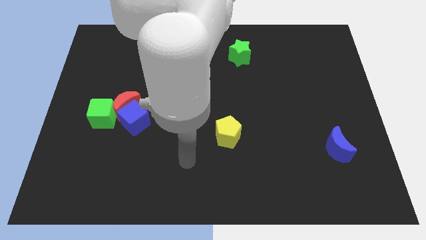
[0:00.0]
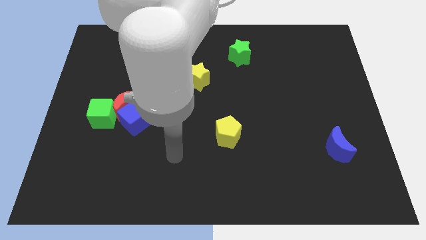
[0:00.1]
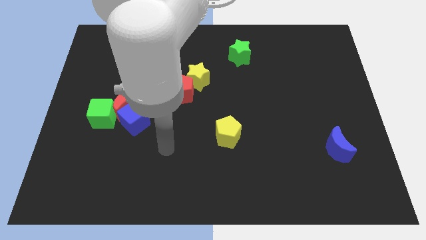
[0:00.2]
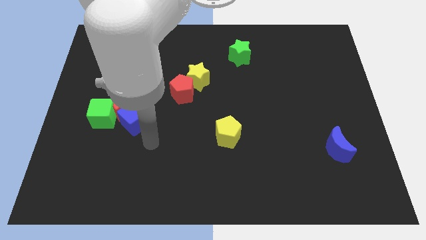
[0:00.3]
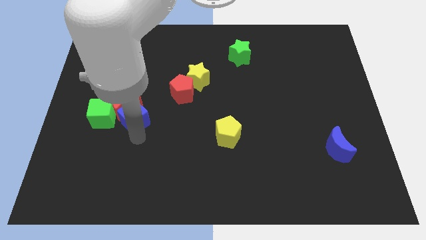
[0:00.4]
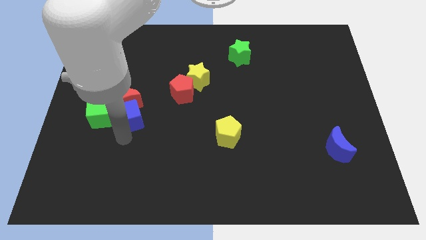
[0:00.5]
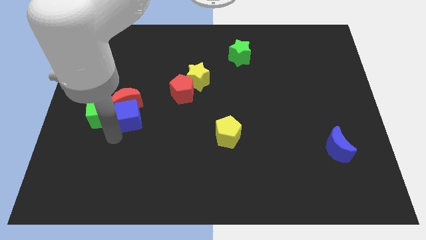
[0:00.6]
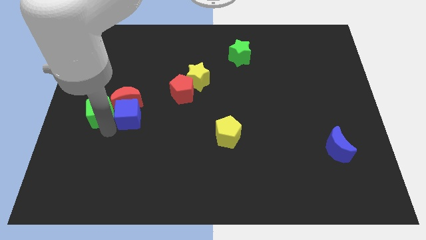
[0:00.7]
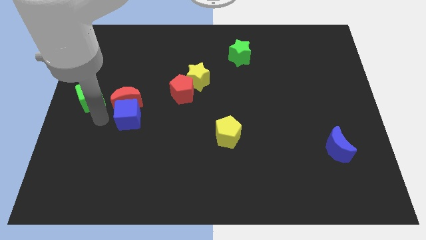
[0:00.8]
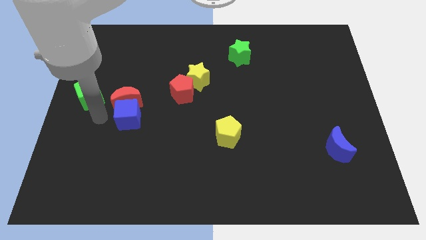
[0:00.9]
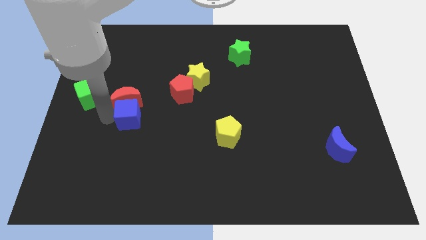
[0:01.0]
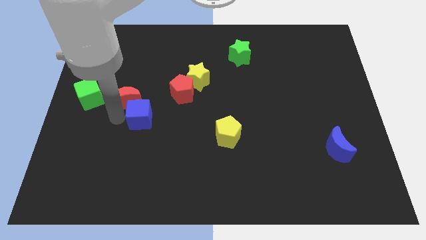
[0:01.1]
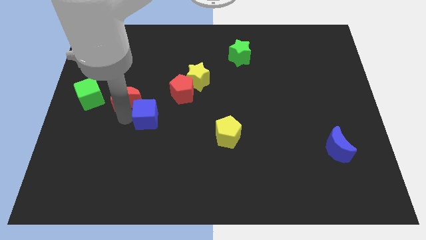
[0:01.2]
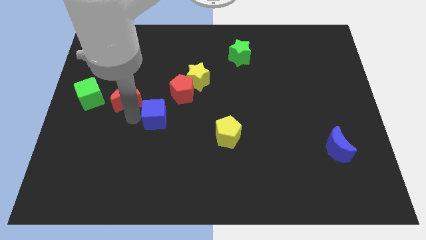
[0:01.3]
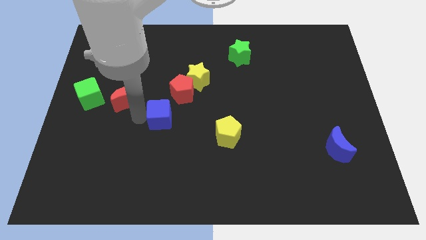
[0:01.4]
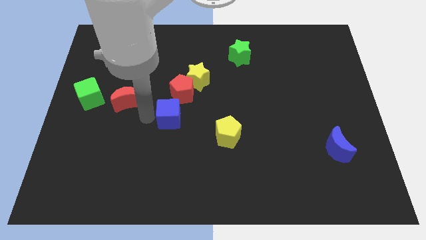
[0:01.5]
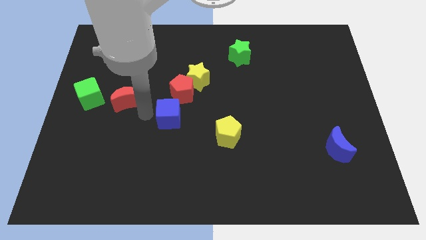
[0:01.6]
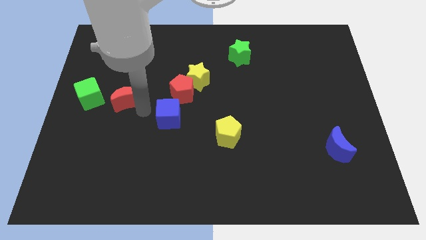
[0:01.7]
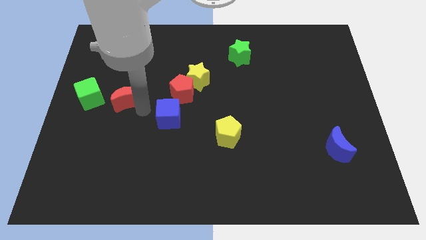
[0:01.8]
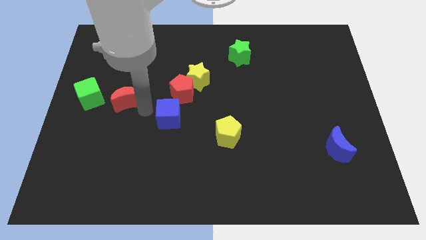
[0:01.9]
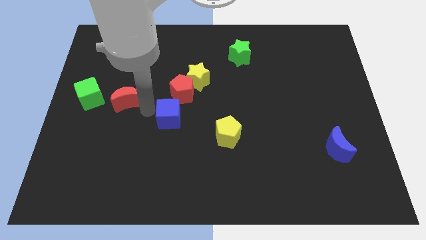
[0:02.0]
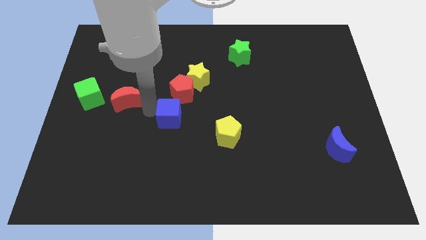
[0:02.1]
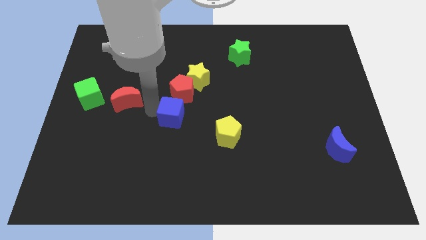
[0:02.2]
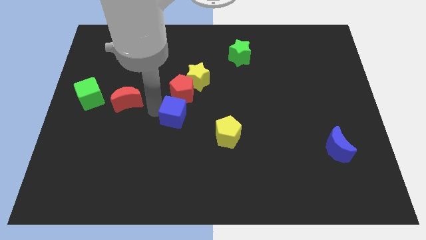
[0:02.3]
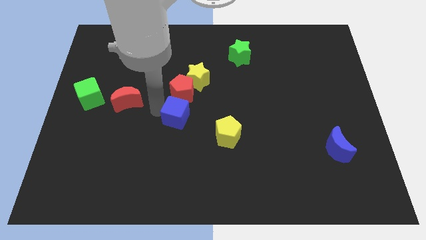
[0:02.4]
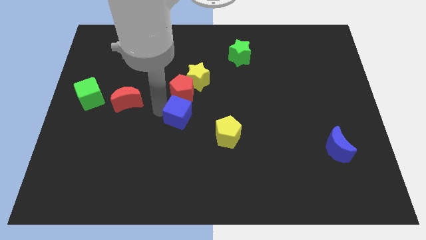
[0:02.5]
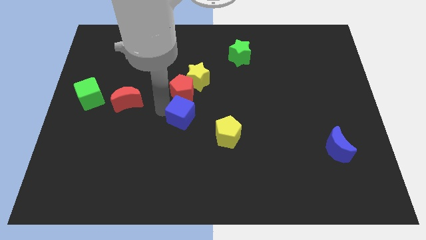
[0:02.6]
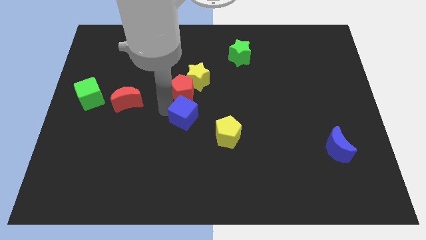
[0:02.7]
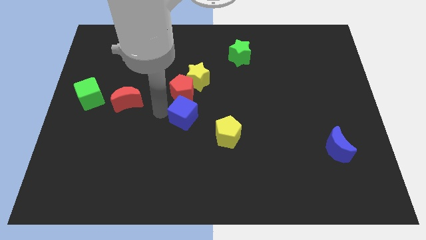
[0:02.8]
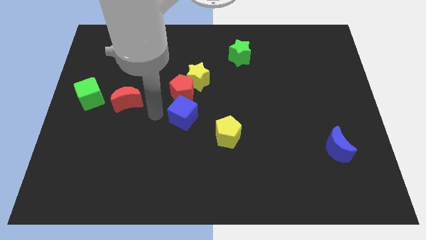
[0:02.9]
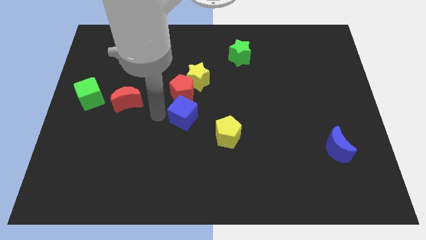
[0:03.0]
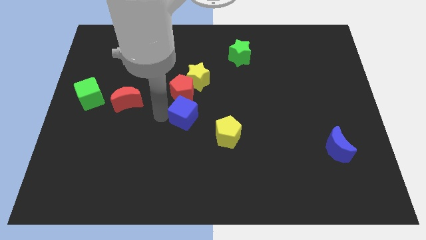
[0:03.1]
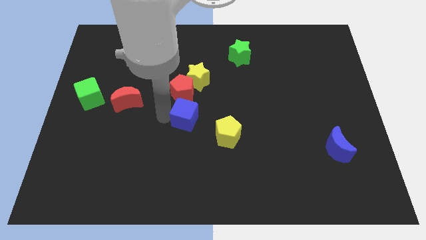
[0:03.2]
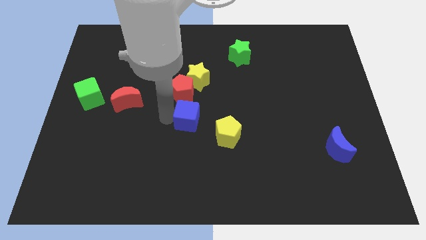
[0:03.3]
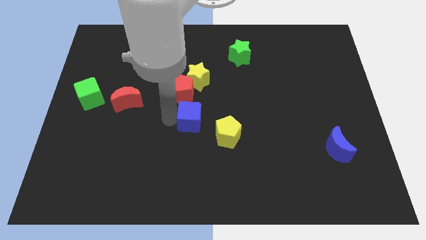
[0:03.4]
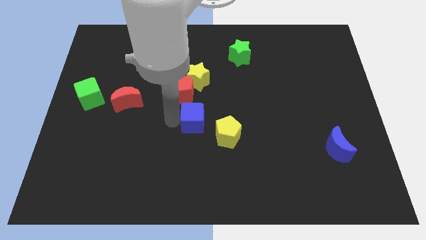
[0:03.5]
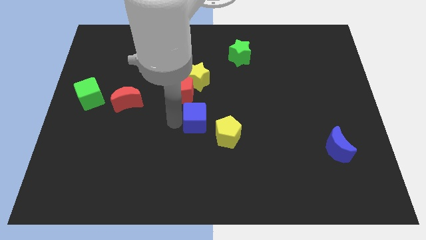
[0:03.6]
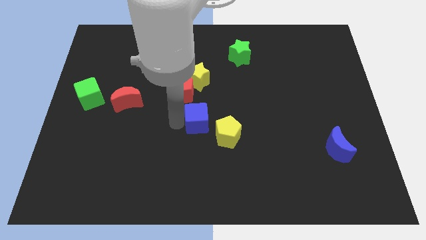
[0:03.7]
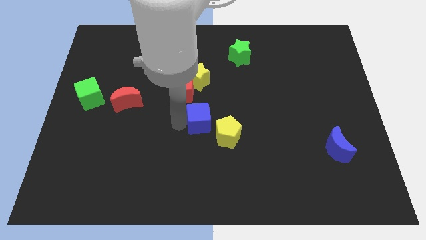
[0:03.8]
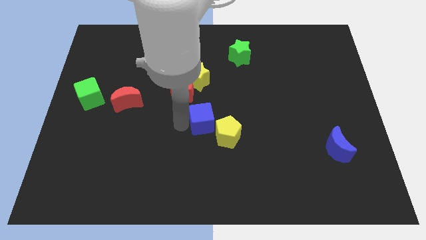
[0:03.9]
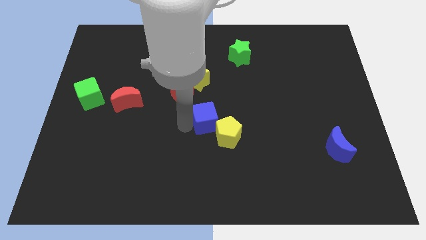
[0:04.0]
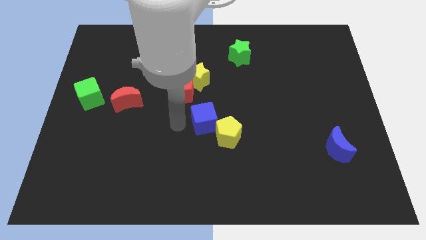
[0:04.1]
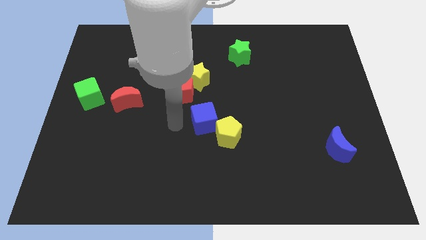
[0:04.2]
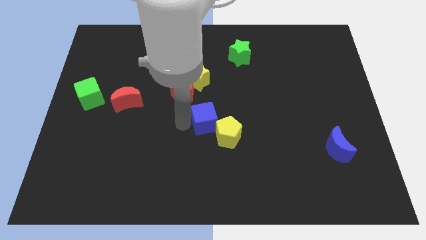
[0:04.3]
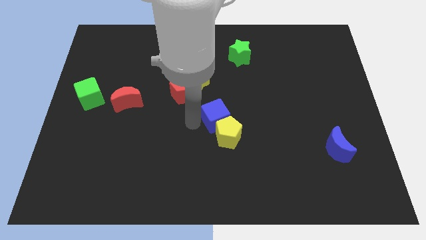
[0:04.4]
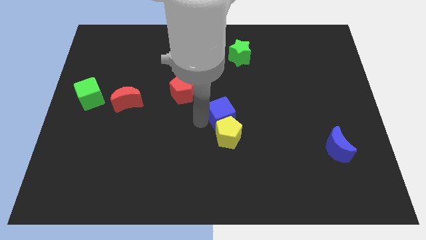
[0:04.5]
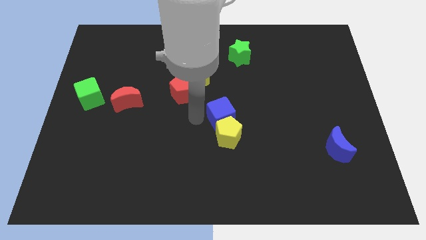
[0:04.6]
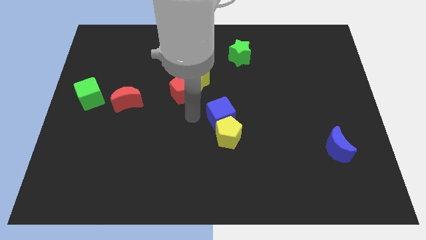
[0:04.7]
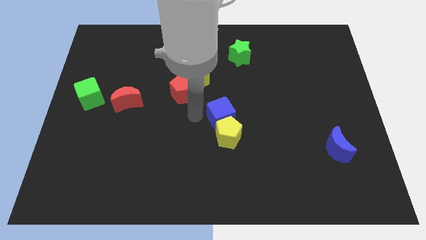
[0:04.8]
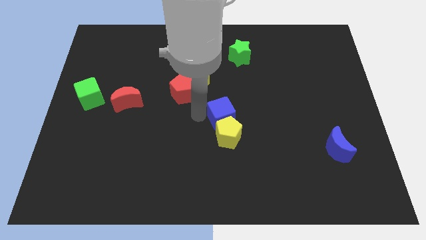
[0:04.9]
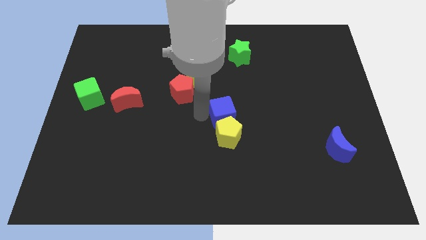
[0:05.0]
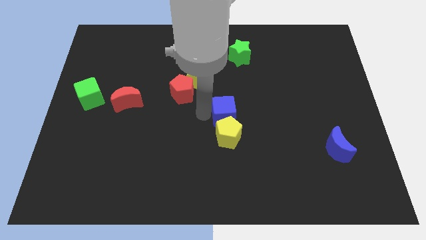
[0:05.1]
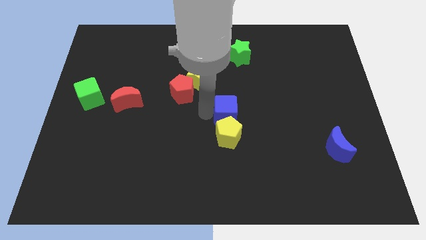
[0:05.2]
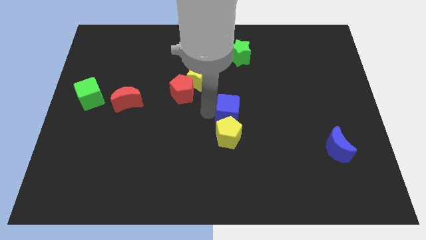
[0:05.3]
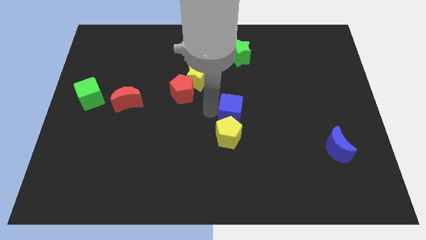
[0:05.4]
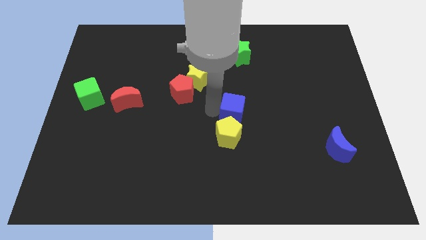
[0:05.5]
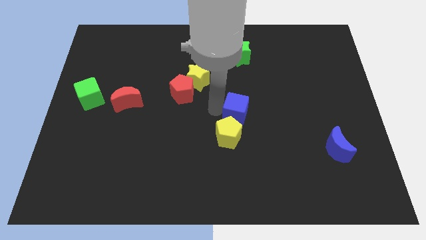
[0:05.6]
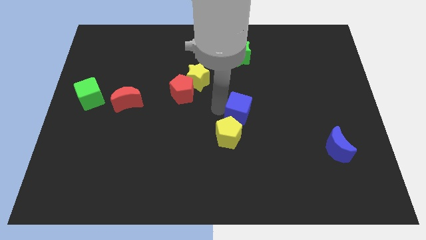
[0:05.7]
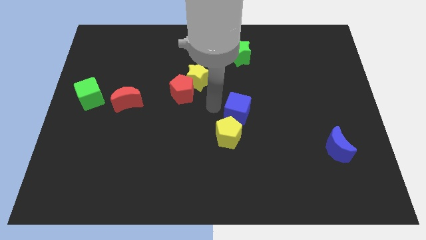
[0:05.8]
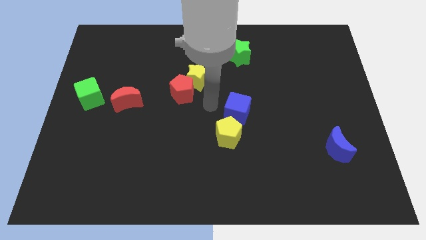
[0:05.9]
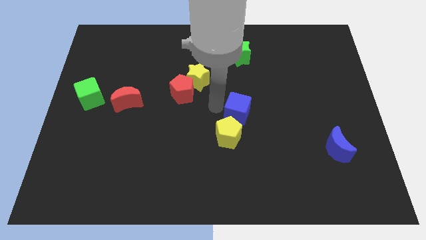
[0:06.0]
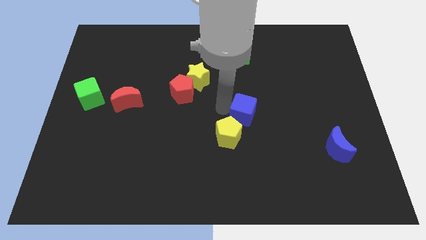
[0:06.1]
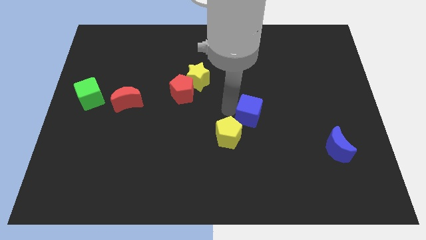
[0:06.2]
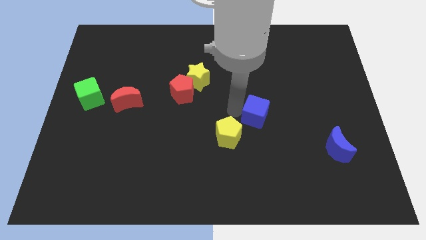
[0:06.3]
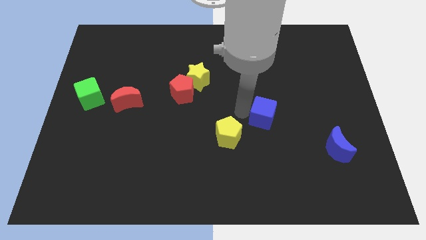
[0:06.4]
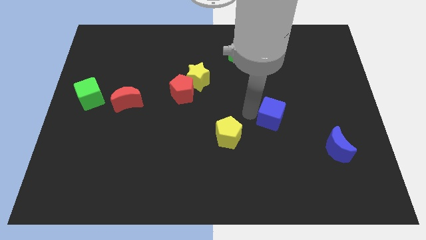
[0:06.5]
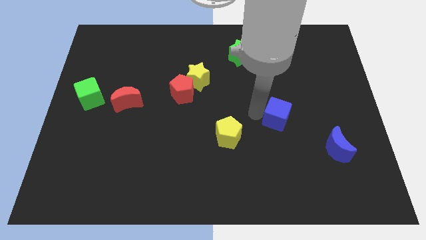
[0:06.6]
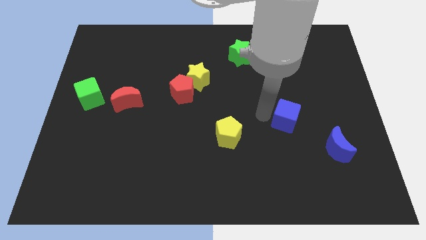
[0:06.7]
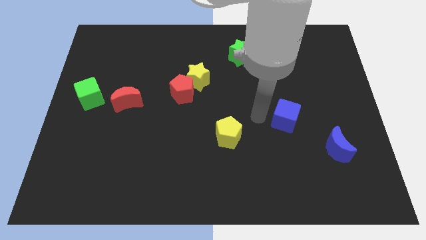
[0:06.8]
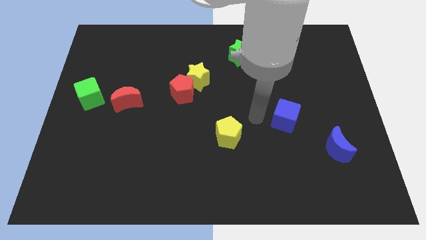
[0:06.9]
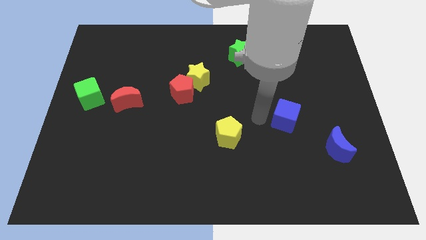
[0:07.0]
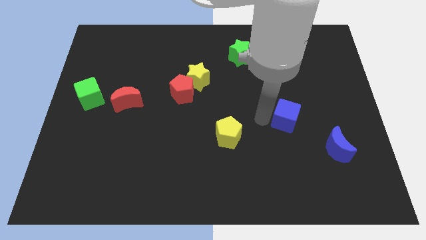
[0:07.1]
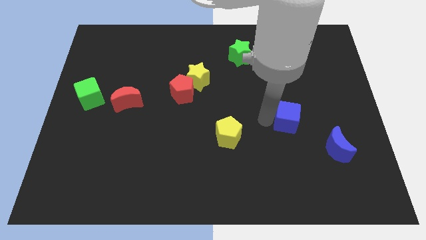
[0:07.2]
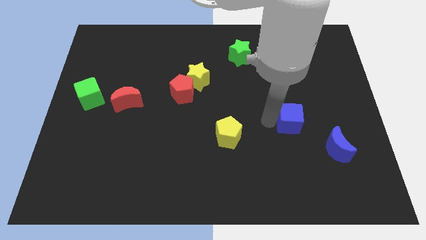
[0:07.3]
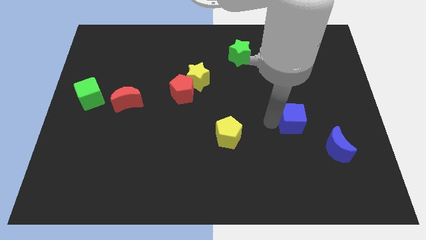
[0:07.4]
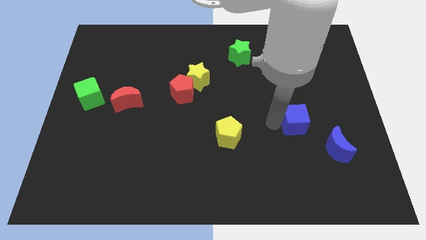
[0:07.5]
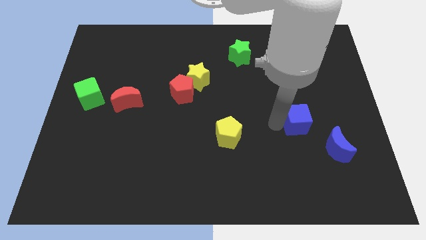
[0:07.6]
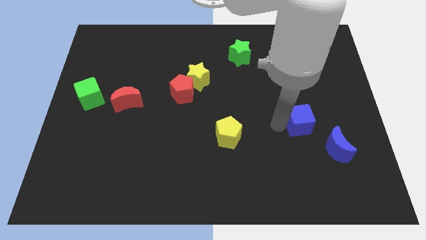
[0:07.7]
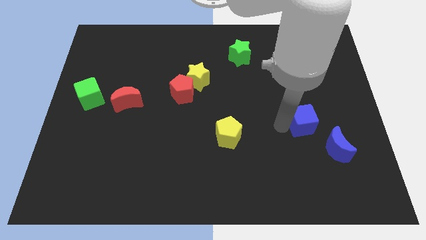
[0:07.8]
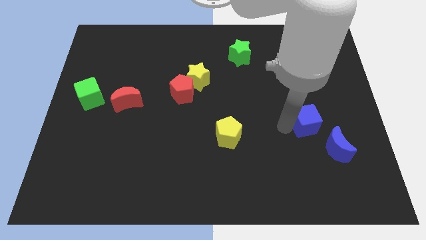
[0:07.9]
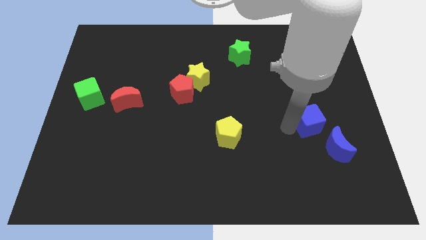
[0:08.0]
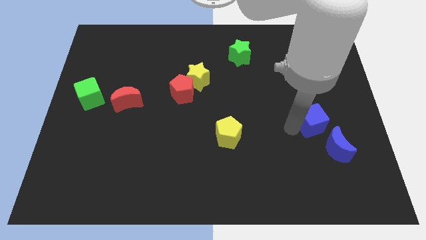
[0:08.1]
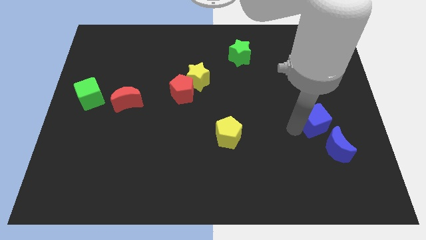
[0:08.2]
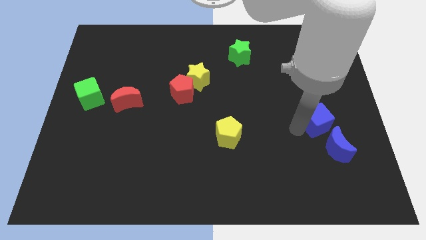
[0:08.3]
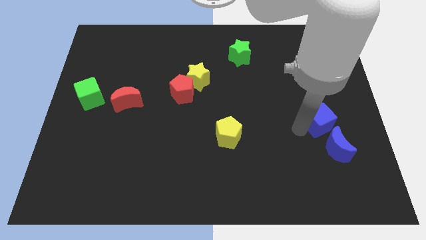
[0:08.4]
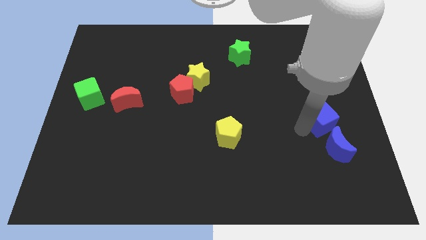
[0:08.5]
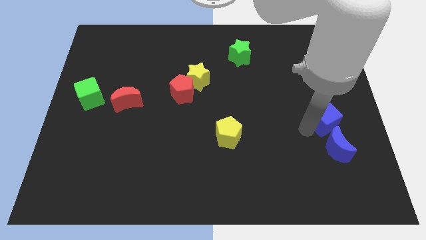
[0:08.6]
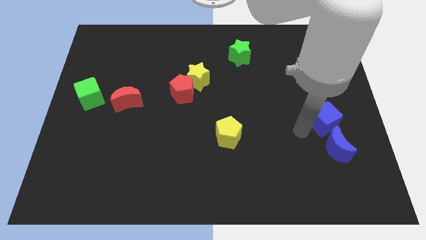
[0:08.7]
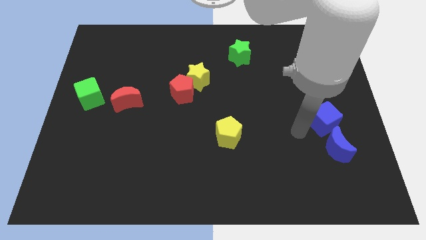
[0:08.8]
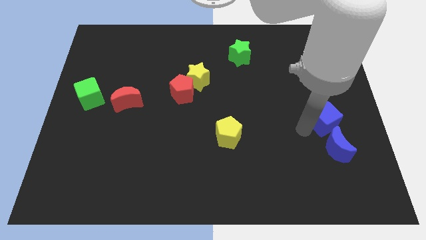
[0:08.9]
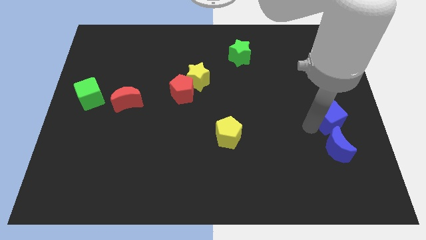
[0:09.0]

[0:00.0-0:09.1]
put the blue cube to the center right
